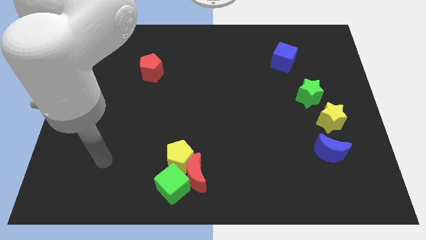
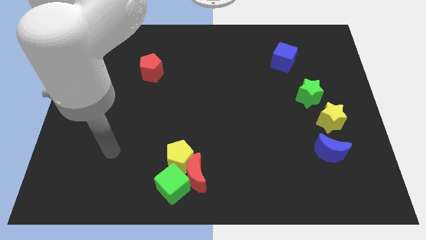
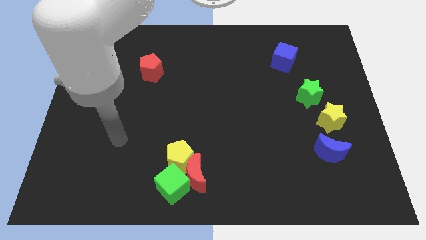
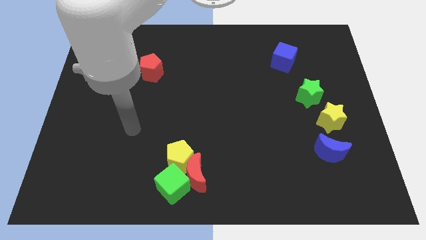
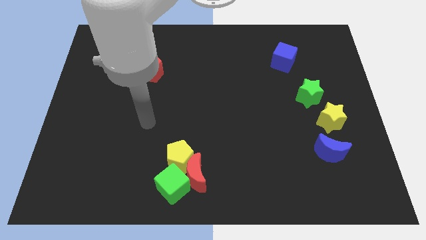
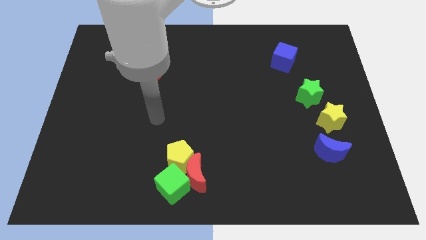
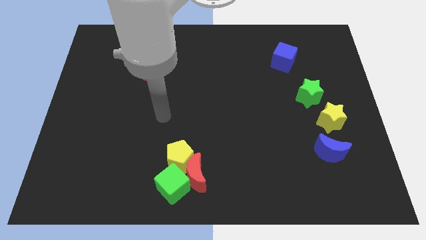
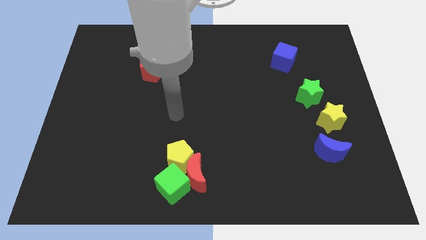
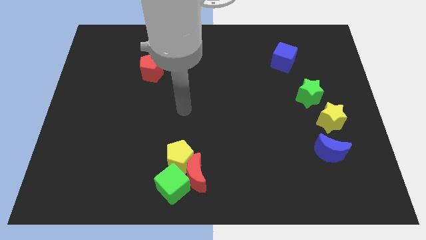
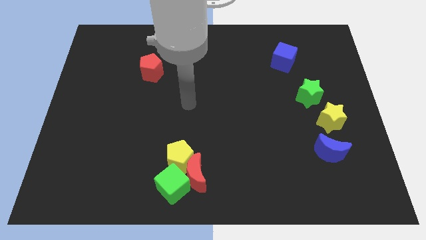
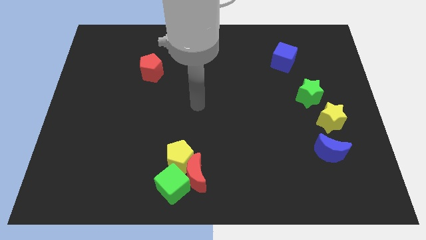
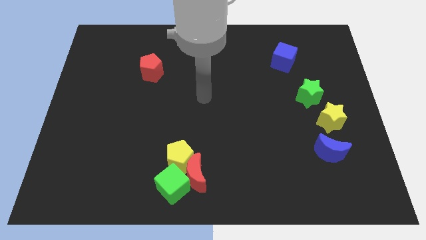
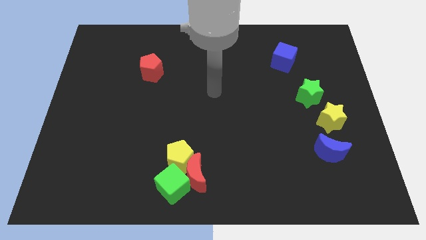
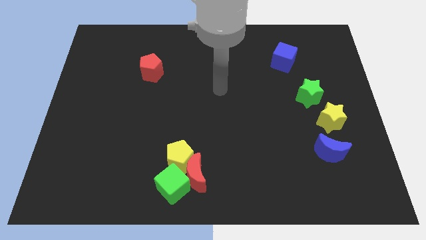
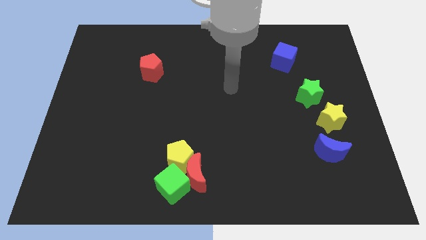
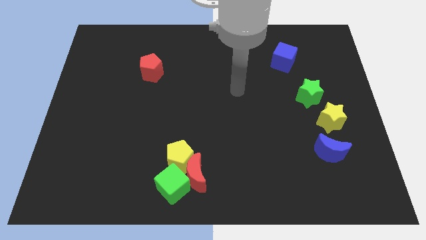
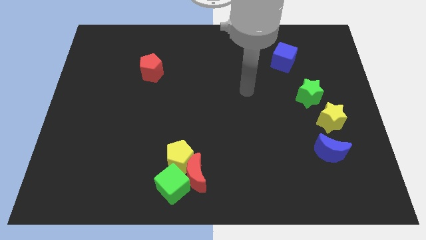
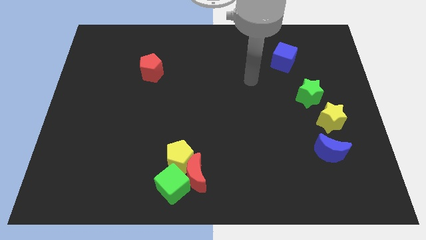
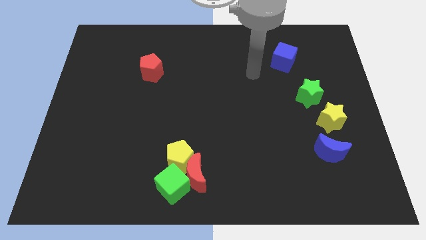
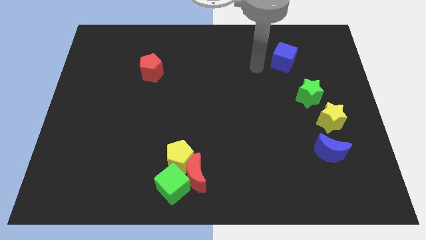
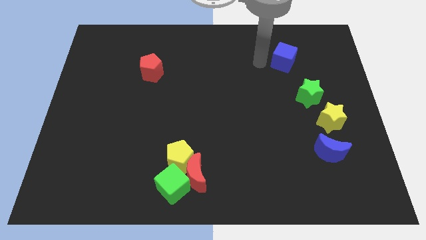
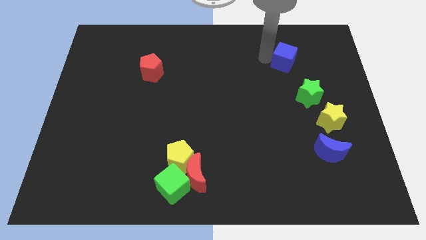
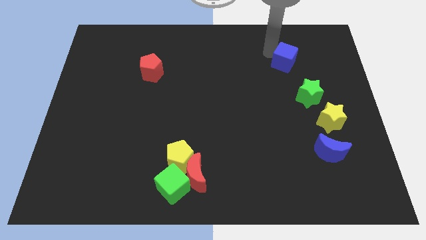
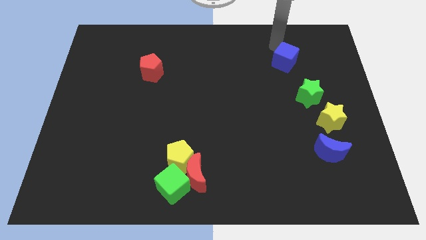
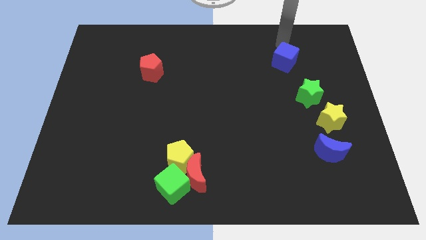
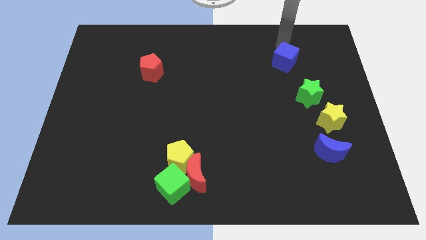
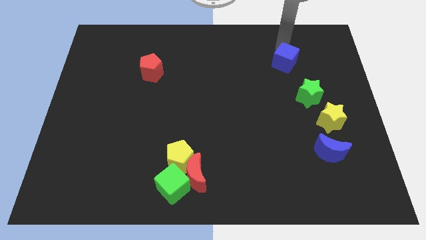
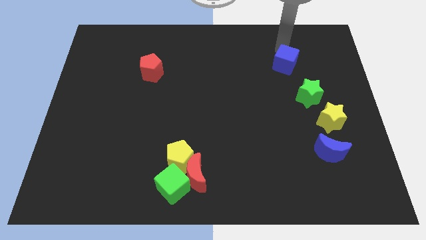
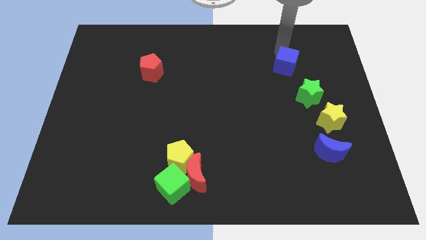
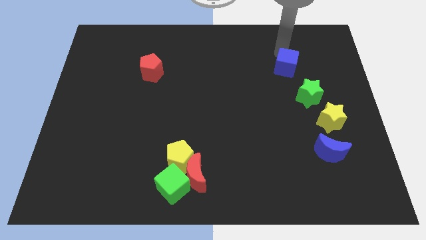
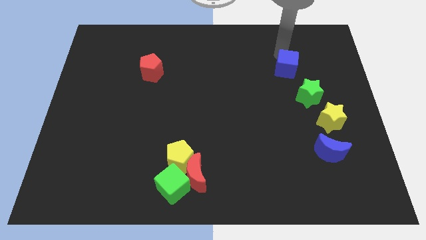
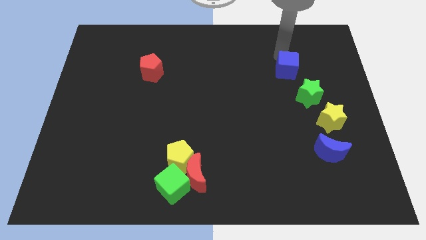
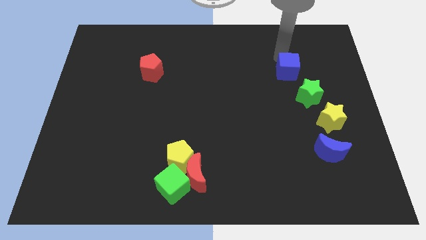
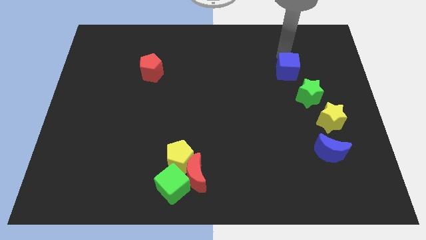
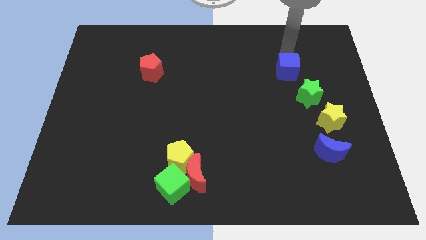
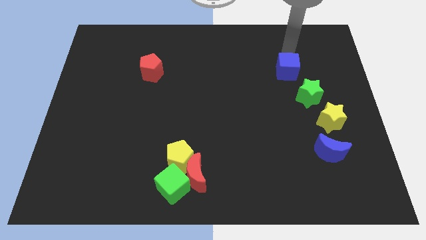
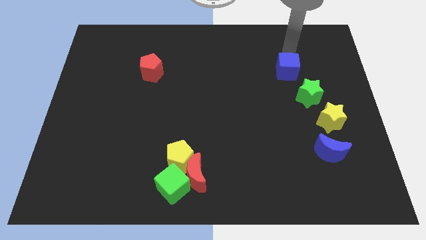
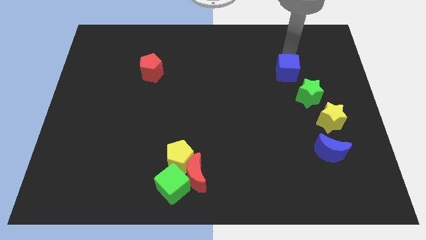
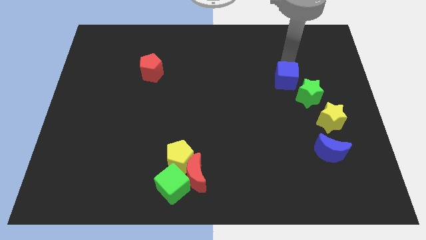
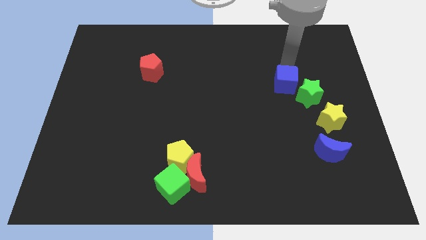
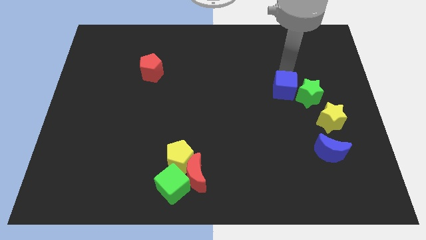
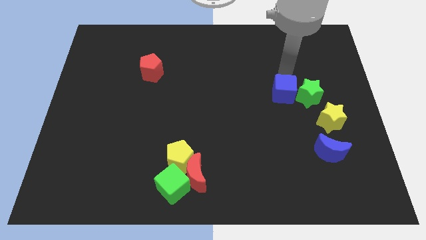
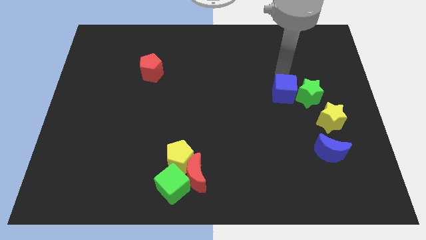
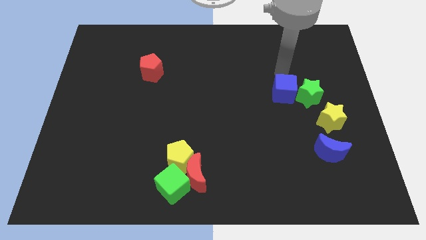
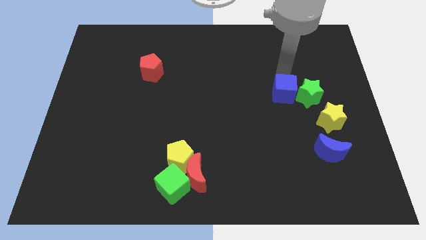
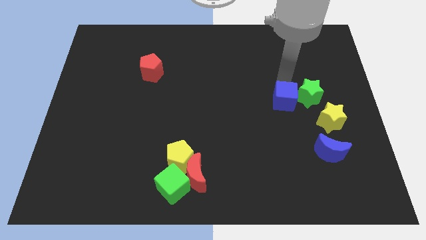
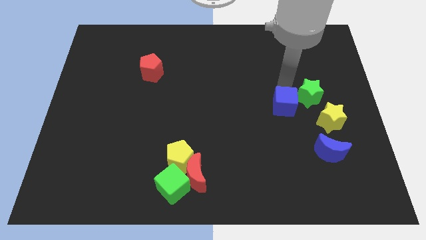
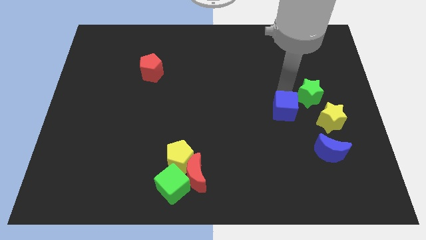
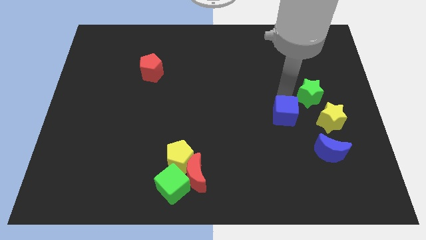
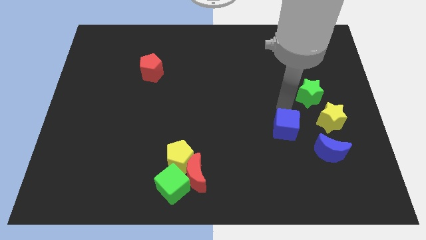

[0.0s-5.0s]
slide the blue cube downwards

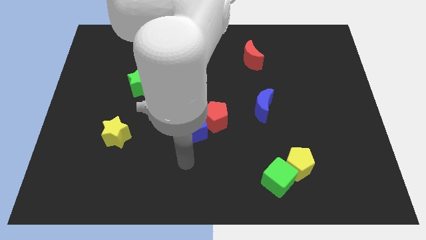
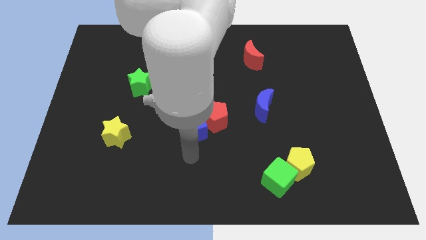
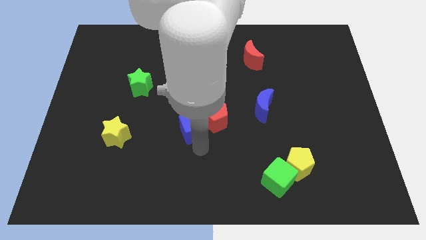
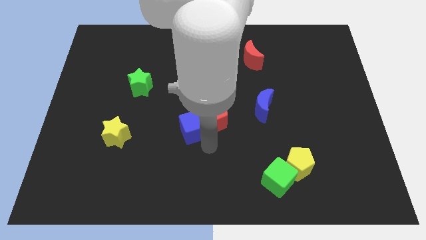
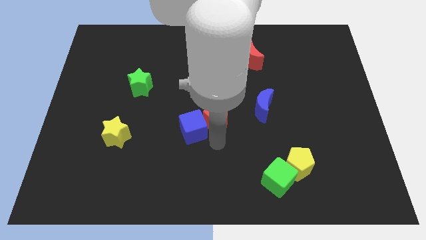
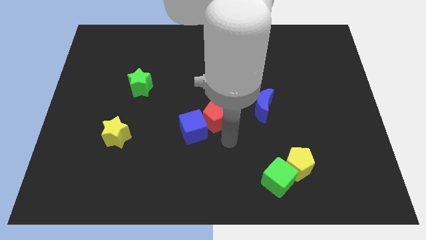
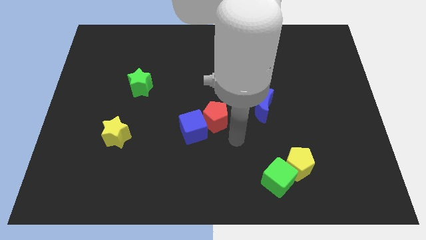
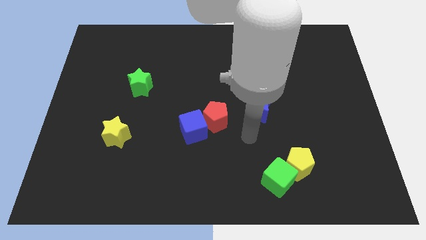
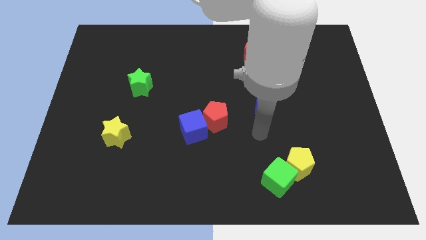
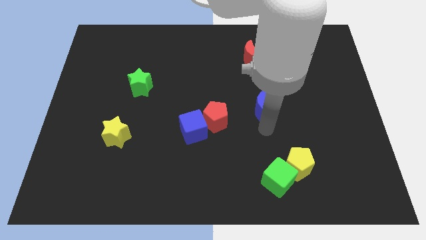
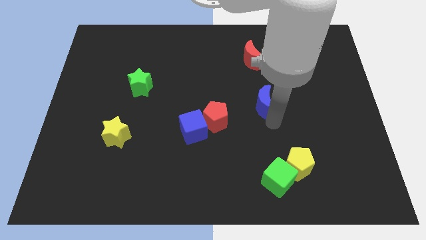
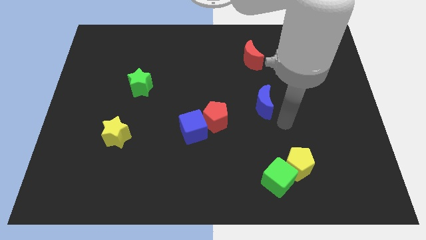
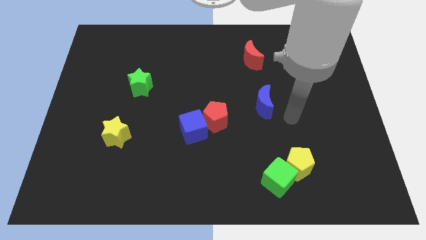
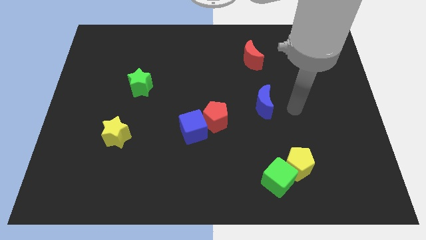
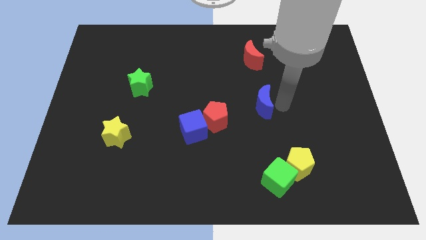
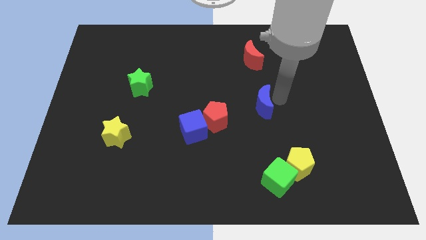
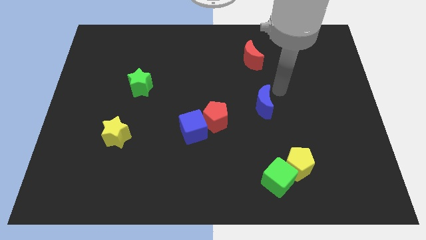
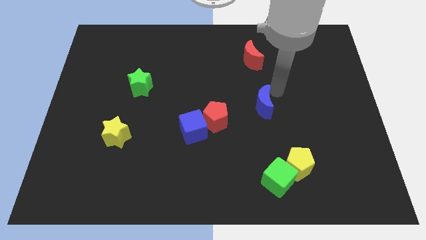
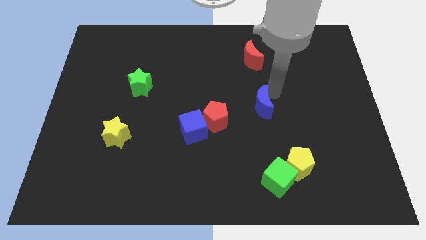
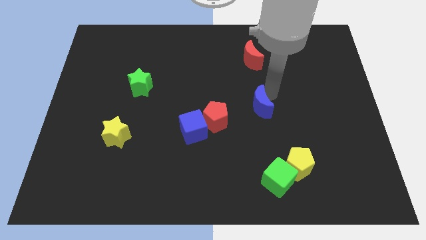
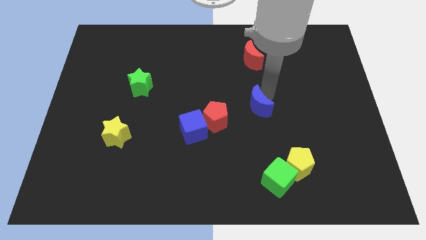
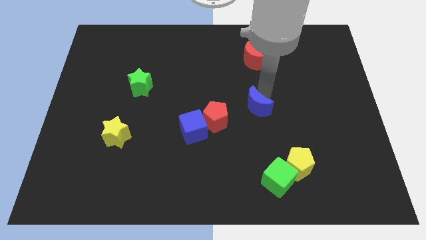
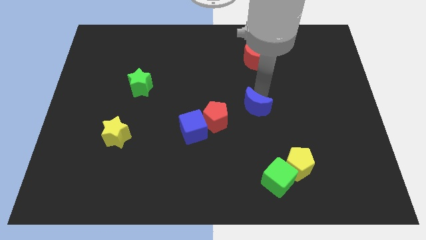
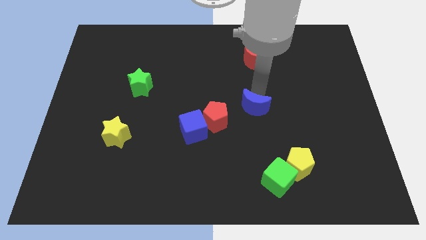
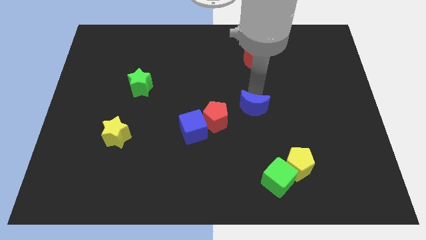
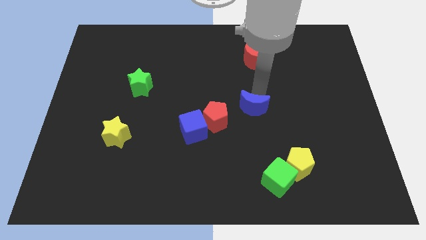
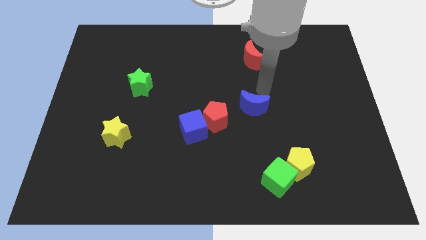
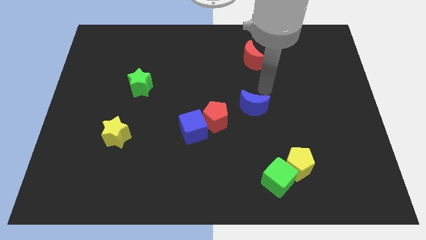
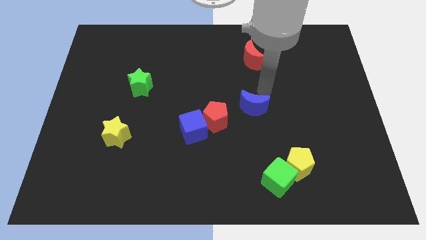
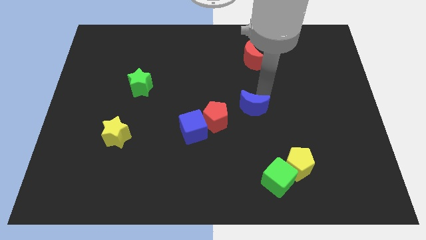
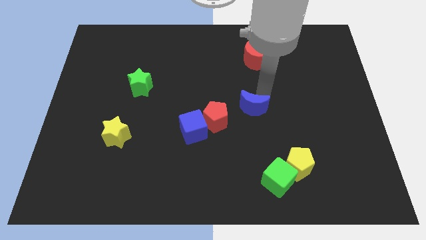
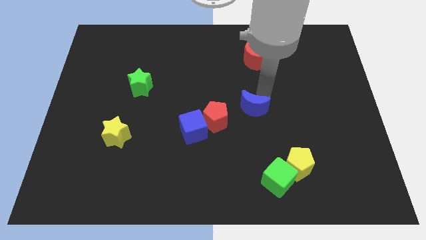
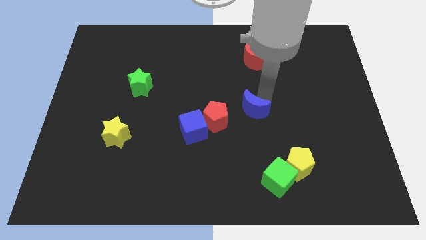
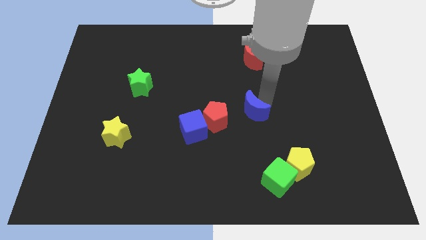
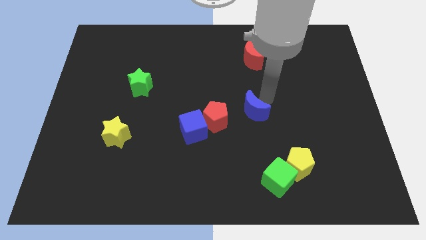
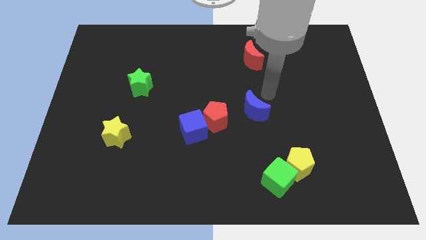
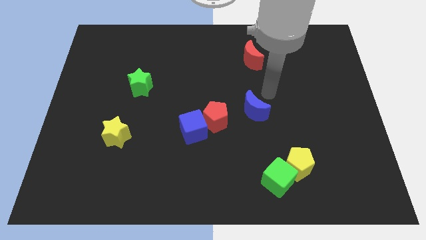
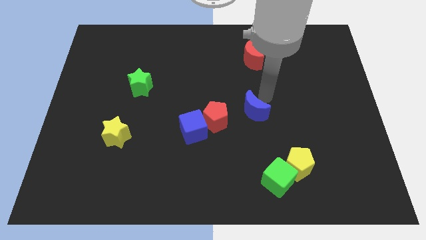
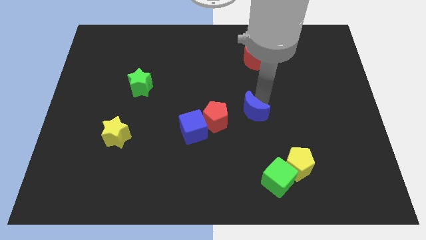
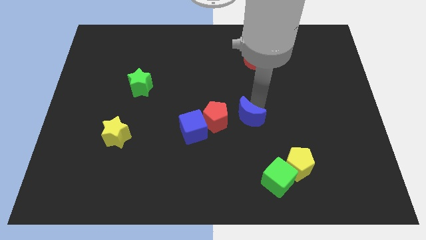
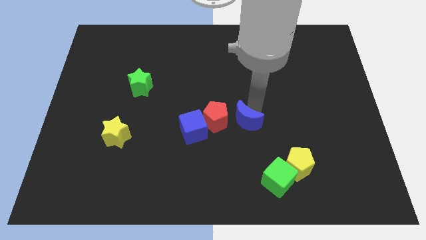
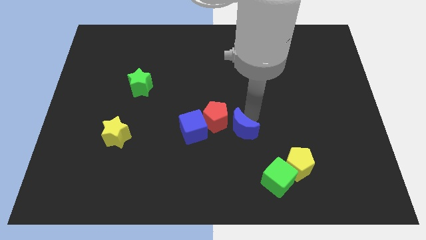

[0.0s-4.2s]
slide the blue moon slightly downwards and then to the left
